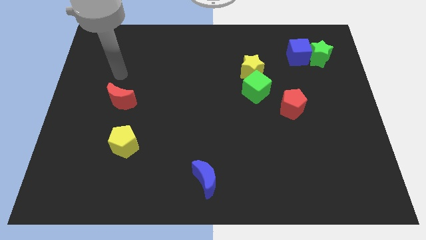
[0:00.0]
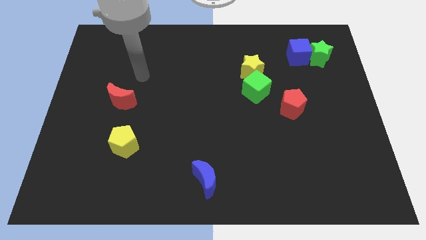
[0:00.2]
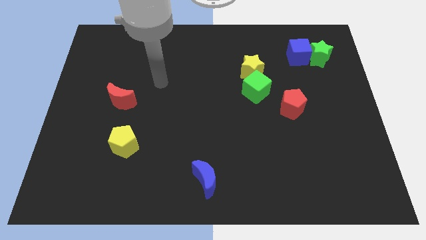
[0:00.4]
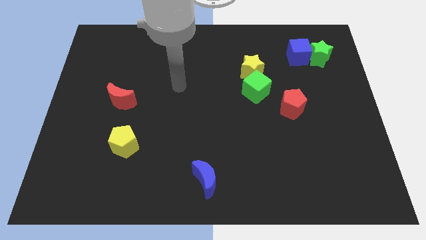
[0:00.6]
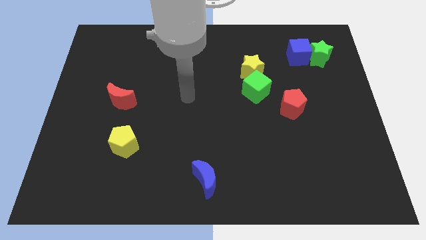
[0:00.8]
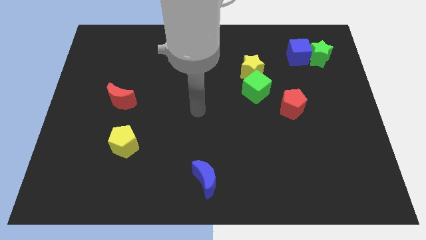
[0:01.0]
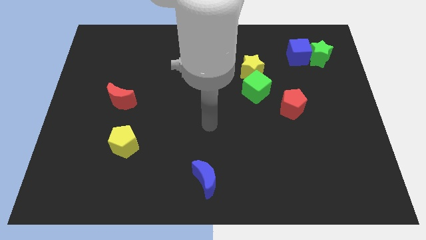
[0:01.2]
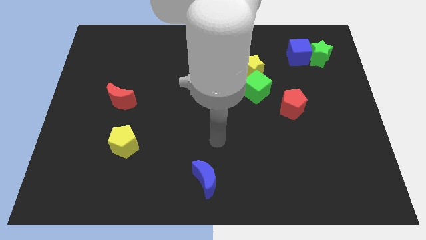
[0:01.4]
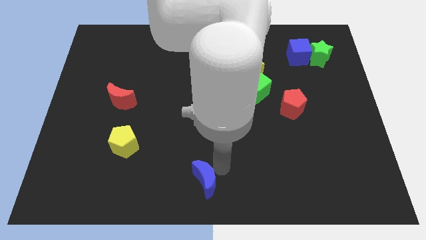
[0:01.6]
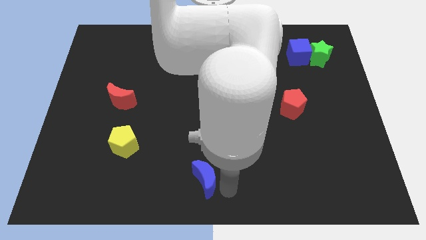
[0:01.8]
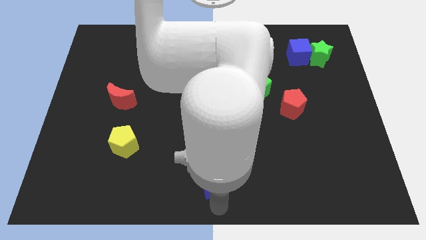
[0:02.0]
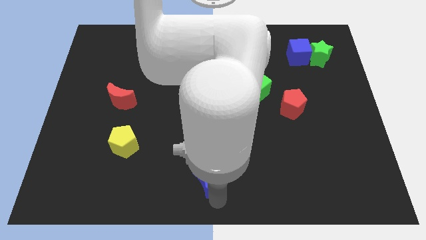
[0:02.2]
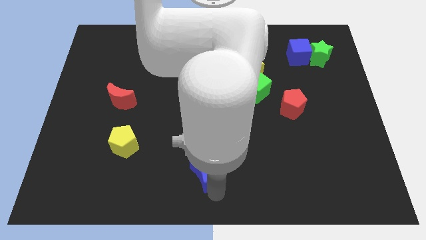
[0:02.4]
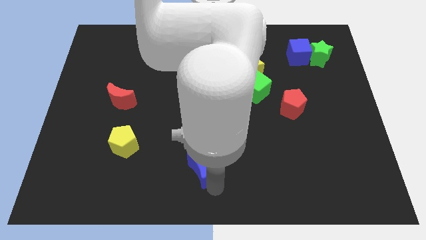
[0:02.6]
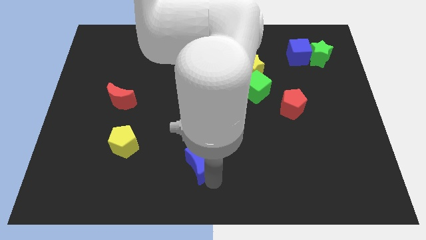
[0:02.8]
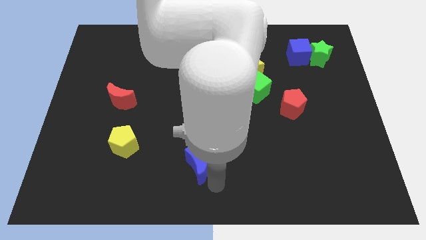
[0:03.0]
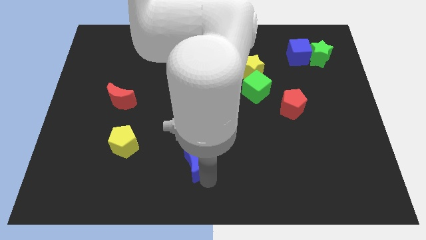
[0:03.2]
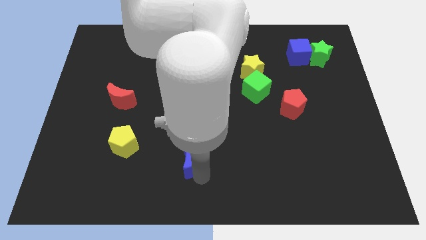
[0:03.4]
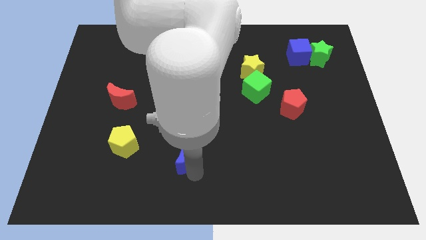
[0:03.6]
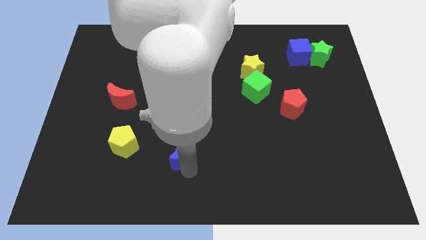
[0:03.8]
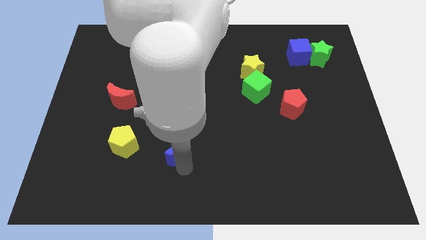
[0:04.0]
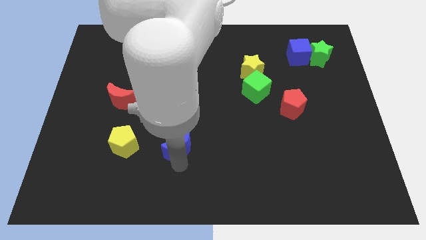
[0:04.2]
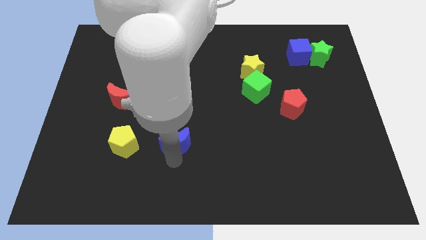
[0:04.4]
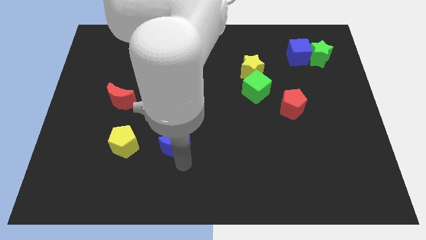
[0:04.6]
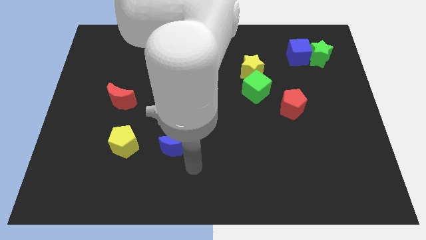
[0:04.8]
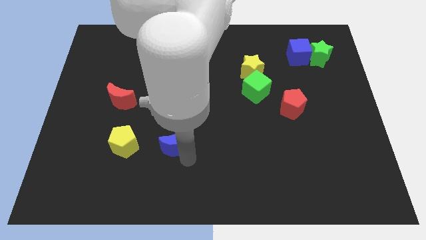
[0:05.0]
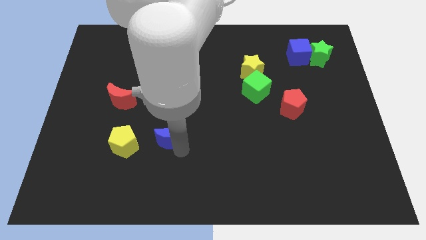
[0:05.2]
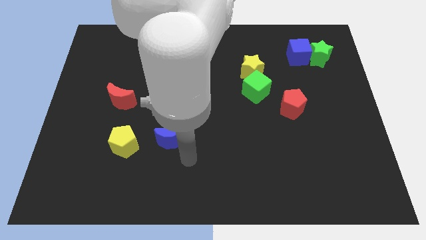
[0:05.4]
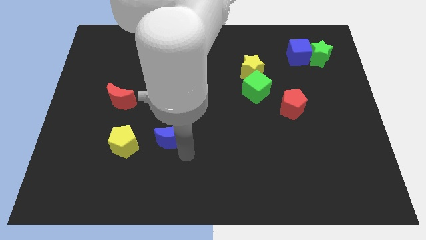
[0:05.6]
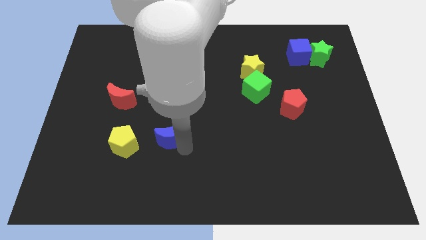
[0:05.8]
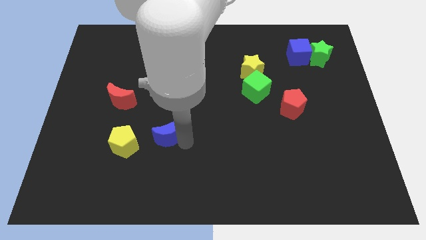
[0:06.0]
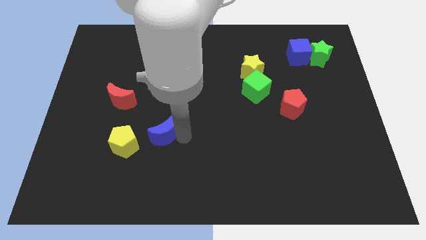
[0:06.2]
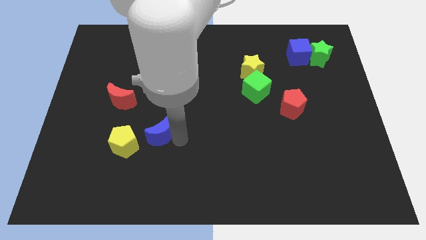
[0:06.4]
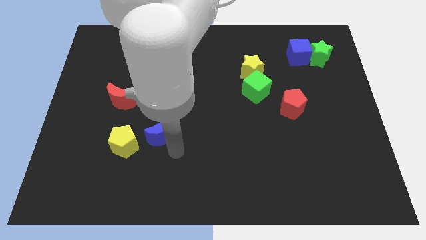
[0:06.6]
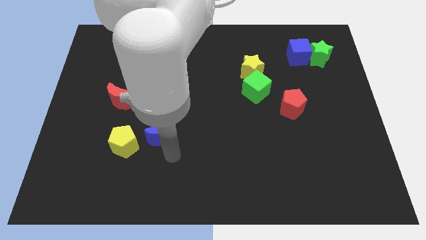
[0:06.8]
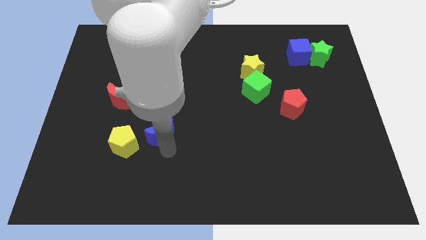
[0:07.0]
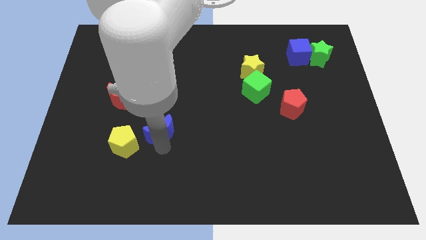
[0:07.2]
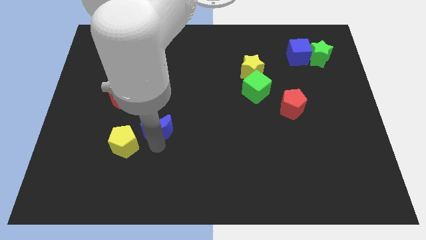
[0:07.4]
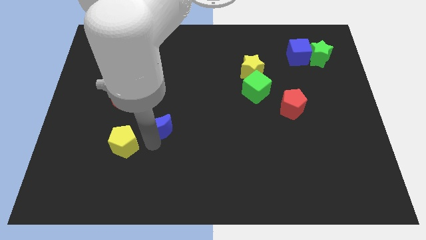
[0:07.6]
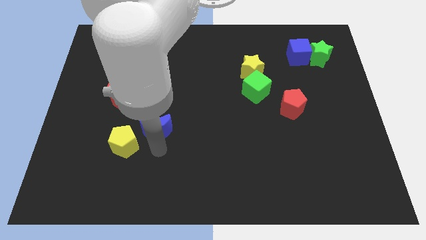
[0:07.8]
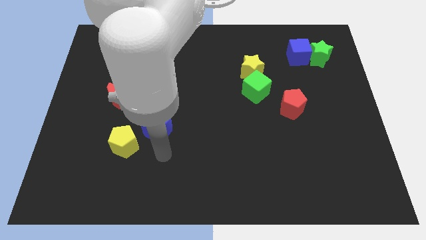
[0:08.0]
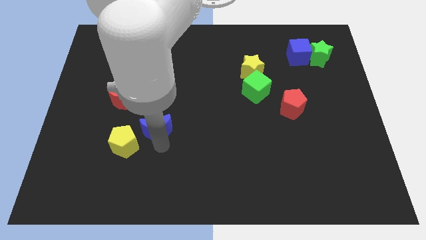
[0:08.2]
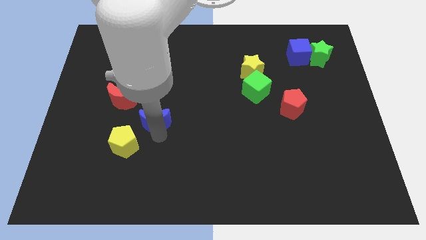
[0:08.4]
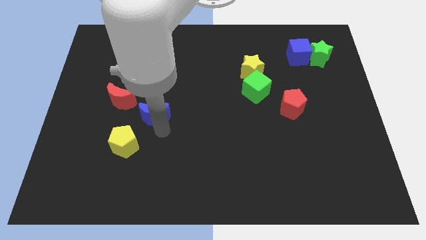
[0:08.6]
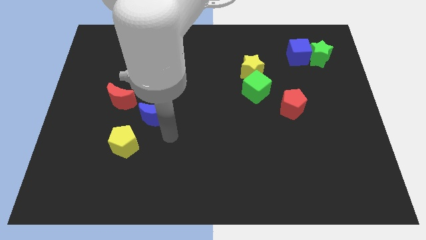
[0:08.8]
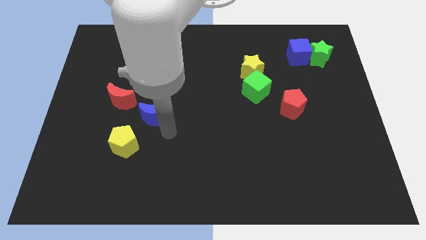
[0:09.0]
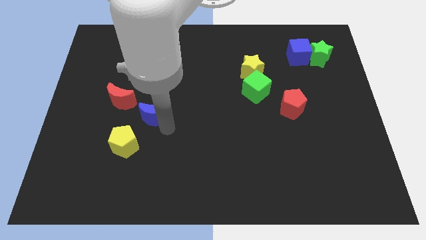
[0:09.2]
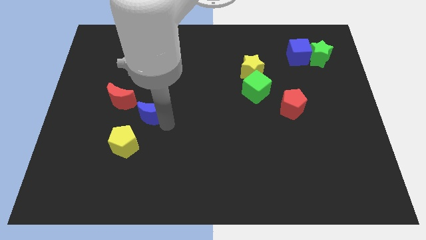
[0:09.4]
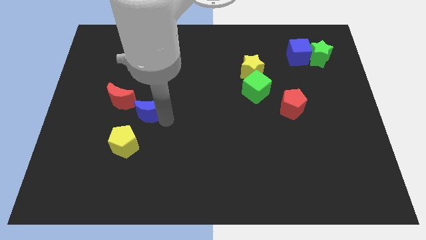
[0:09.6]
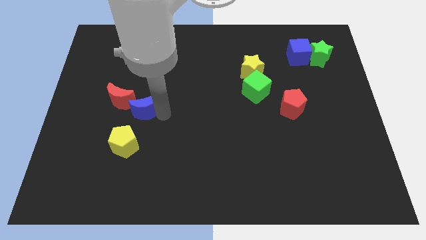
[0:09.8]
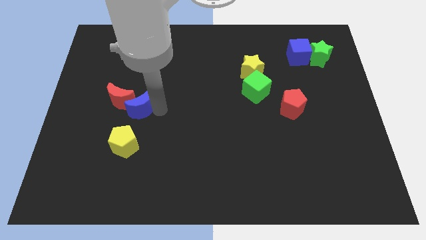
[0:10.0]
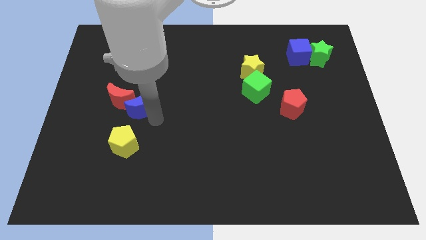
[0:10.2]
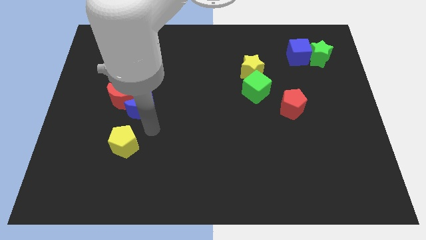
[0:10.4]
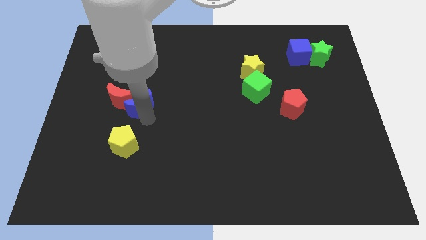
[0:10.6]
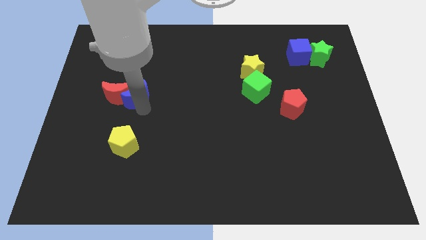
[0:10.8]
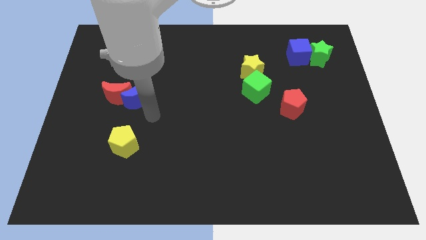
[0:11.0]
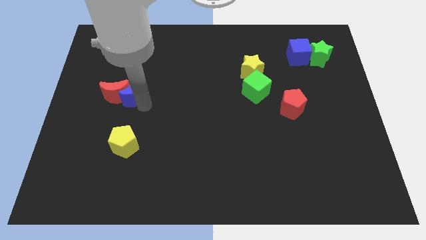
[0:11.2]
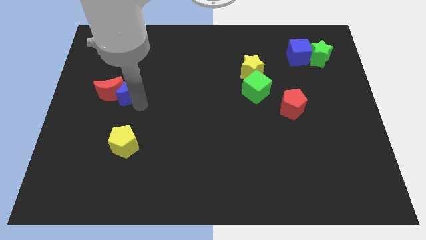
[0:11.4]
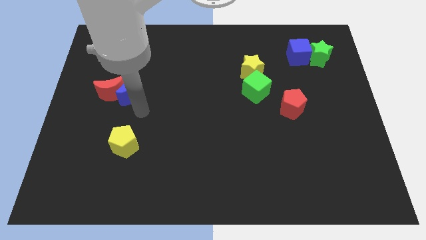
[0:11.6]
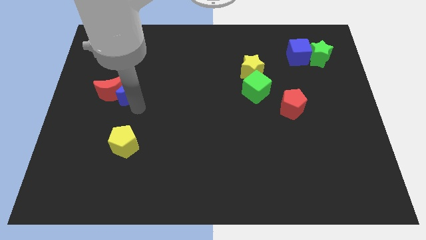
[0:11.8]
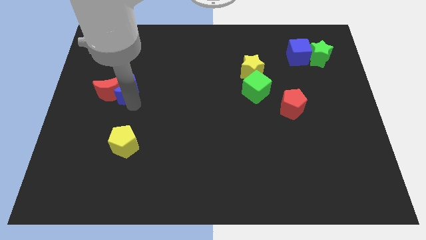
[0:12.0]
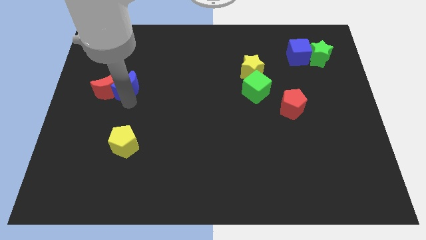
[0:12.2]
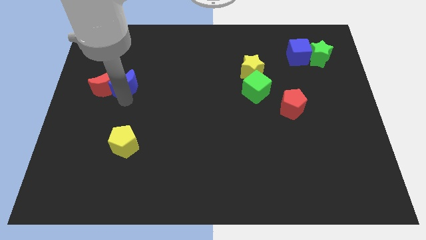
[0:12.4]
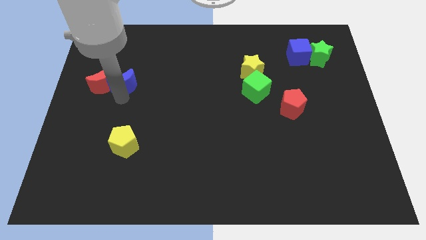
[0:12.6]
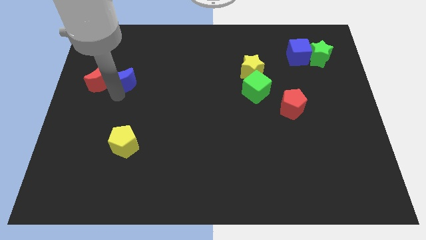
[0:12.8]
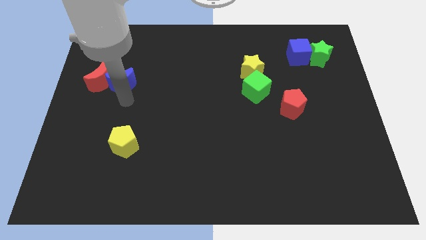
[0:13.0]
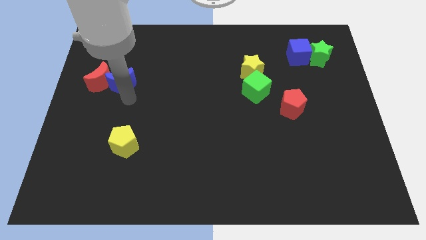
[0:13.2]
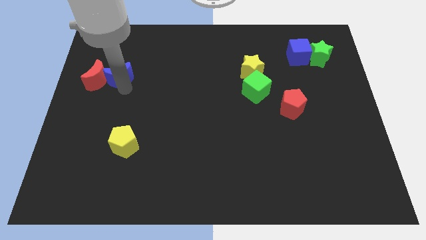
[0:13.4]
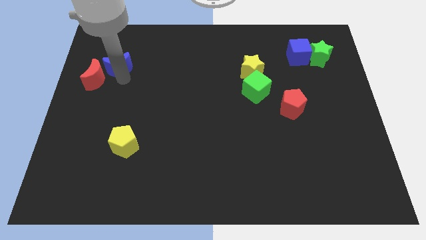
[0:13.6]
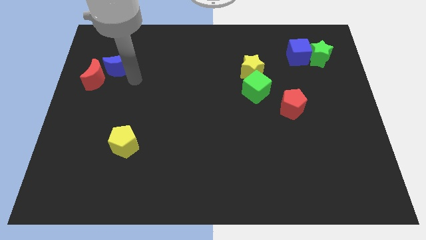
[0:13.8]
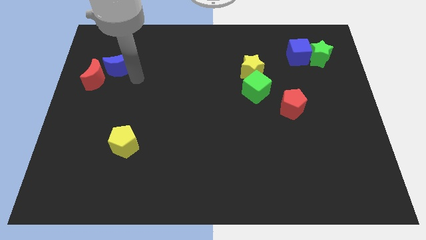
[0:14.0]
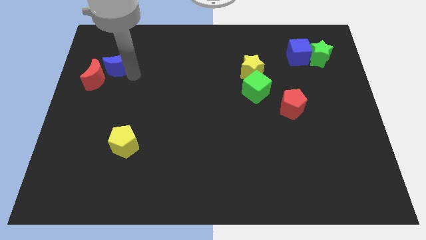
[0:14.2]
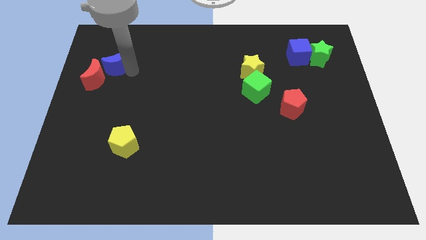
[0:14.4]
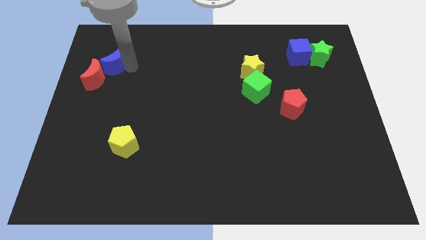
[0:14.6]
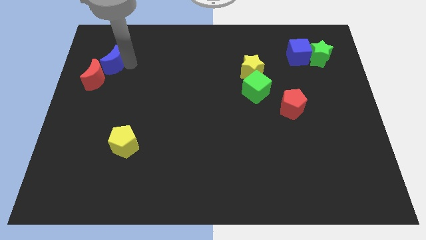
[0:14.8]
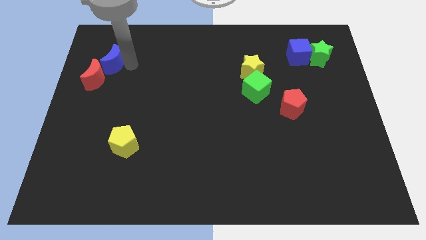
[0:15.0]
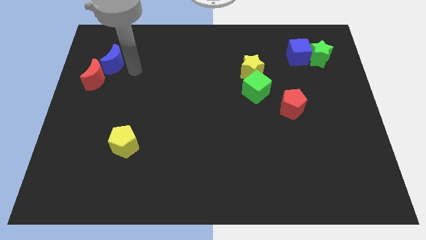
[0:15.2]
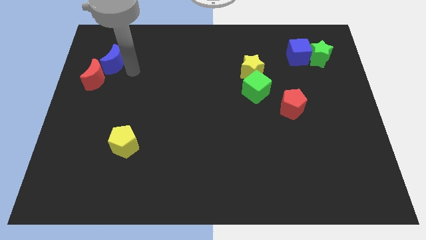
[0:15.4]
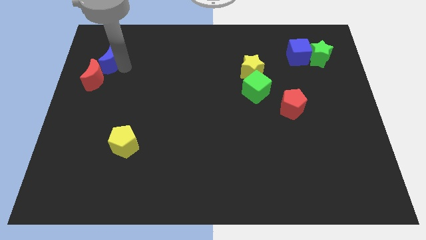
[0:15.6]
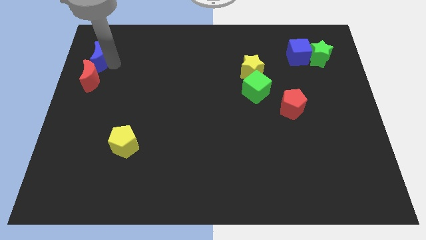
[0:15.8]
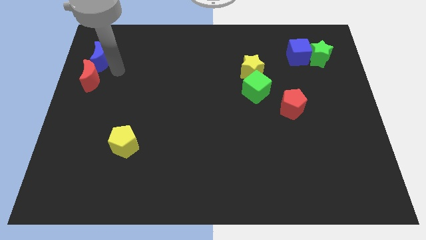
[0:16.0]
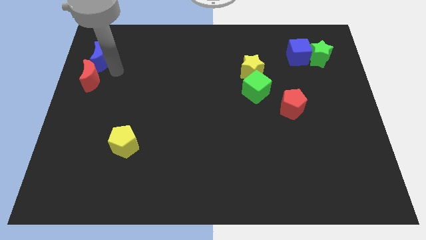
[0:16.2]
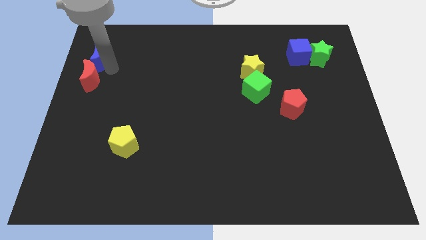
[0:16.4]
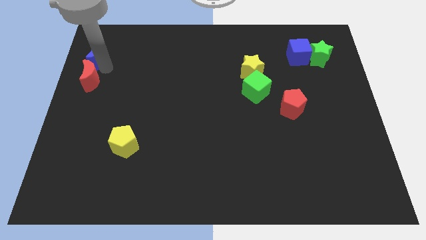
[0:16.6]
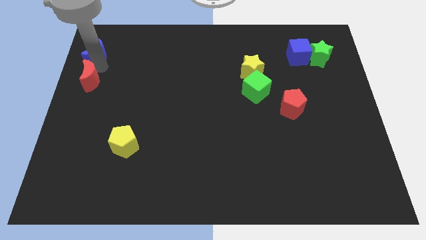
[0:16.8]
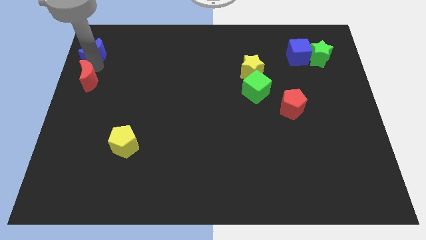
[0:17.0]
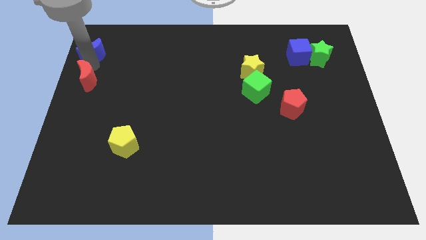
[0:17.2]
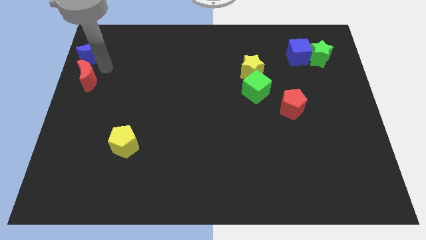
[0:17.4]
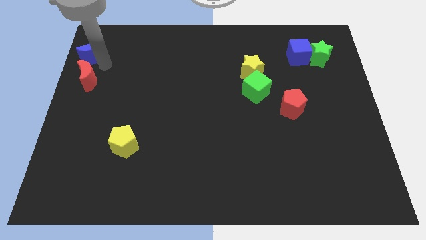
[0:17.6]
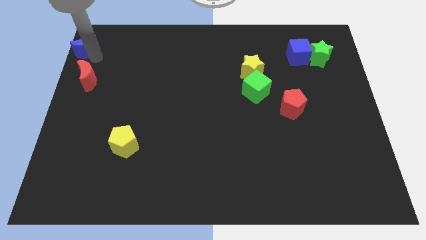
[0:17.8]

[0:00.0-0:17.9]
put the blue moon to the top left corner
